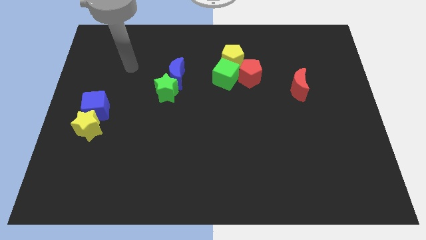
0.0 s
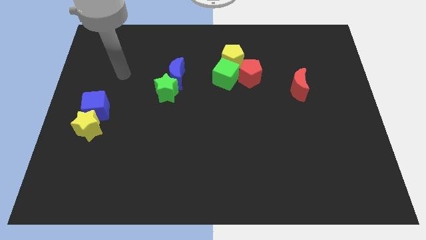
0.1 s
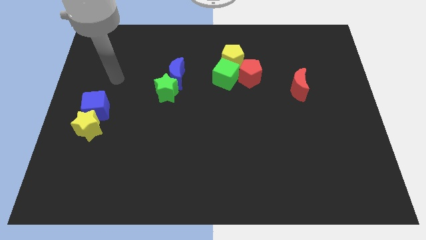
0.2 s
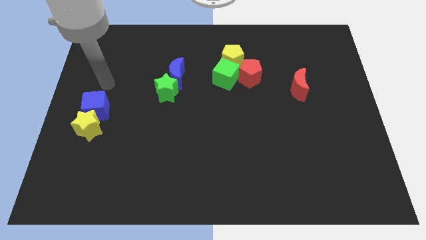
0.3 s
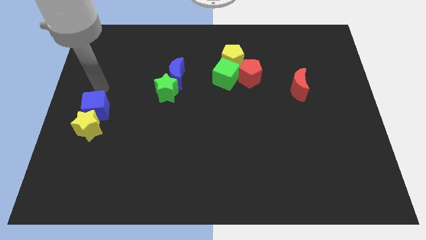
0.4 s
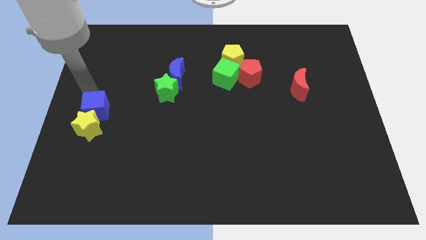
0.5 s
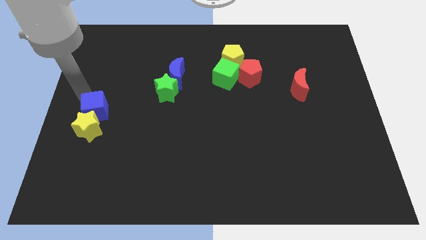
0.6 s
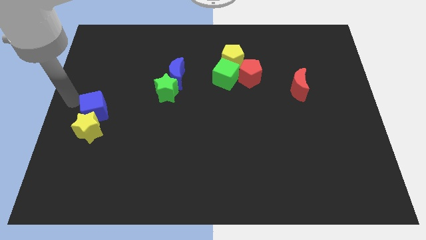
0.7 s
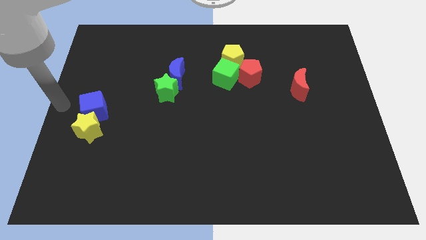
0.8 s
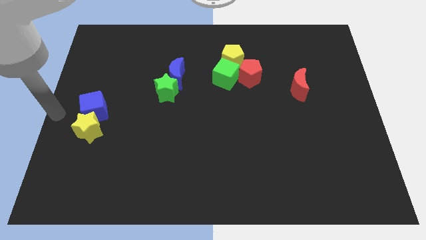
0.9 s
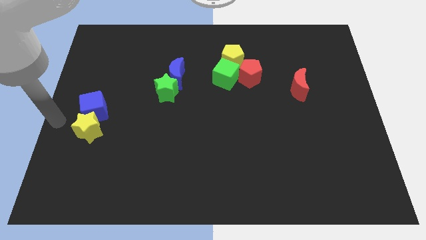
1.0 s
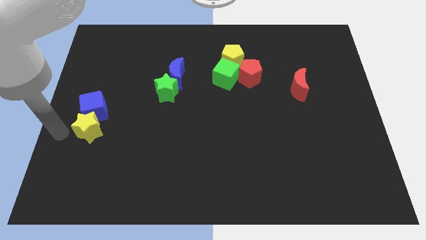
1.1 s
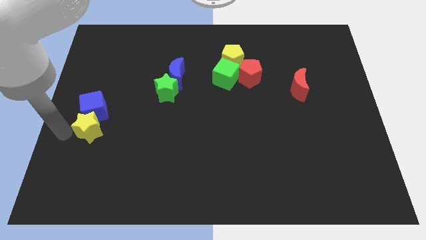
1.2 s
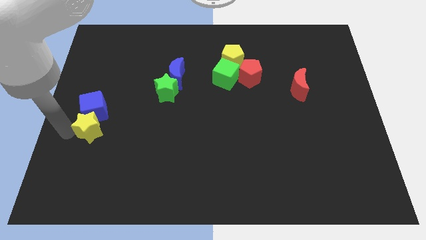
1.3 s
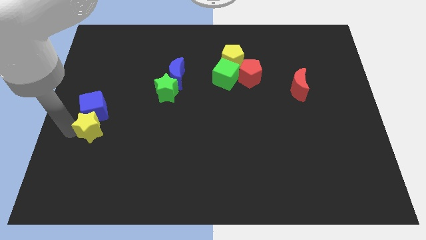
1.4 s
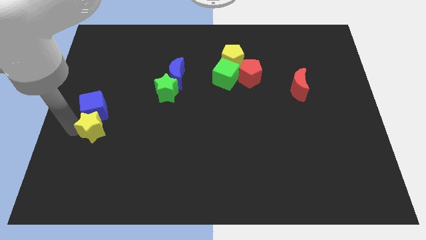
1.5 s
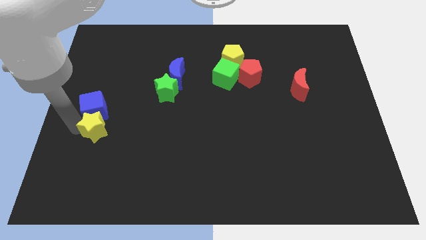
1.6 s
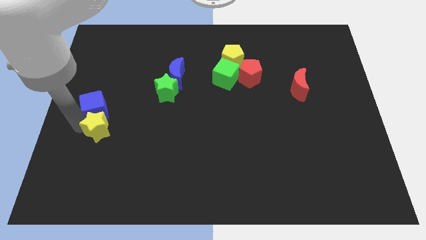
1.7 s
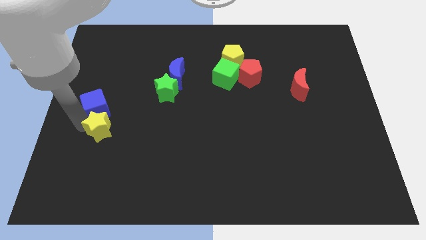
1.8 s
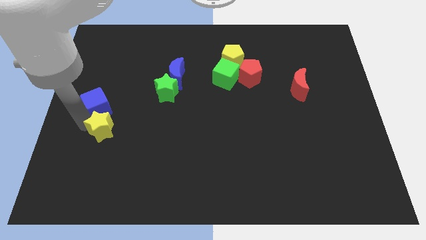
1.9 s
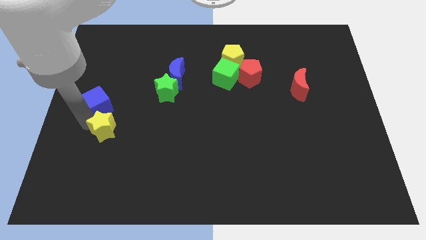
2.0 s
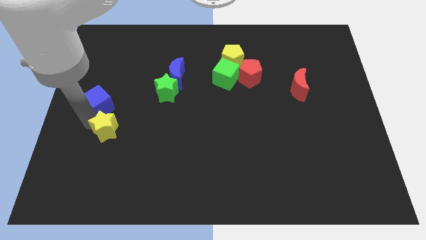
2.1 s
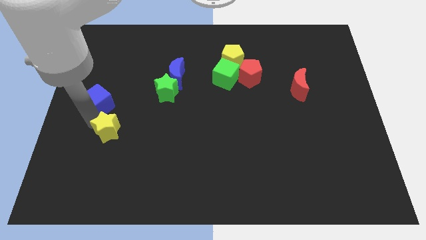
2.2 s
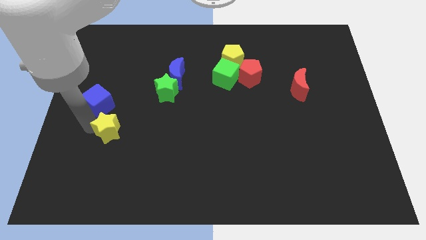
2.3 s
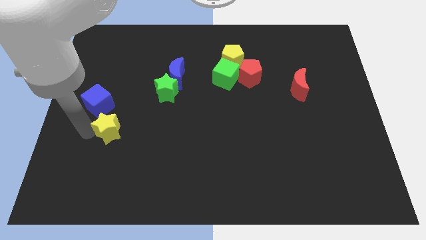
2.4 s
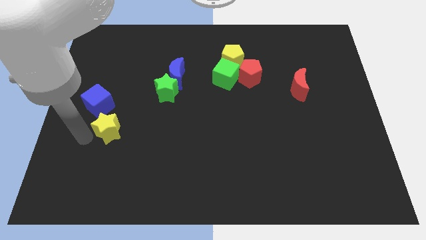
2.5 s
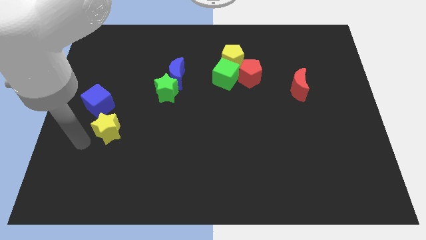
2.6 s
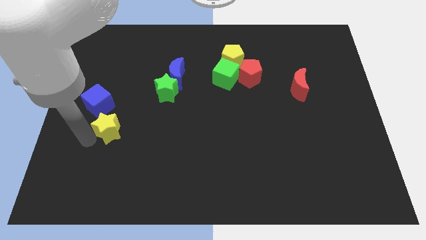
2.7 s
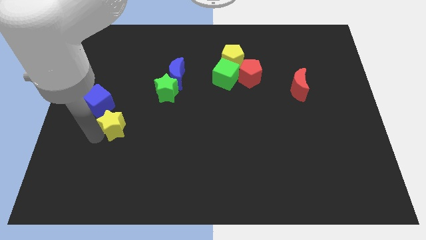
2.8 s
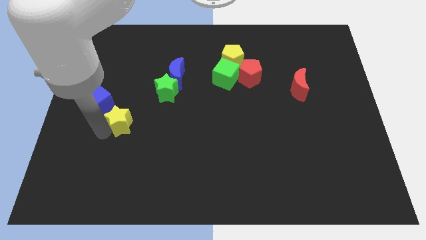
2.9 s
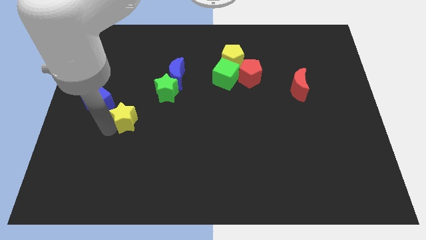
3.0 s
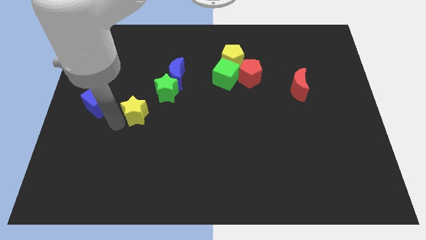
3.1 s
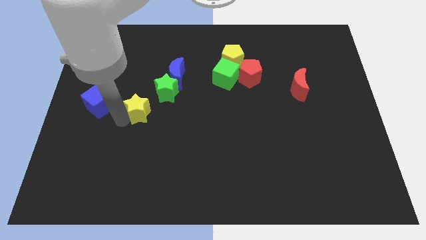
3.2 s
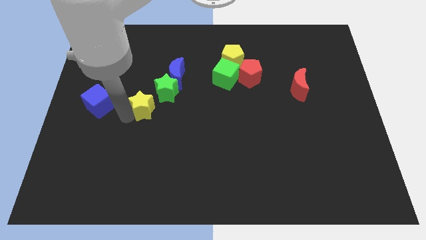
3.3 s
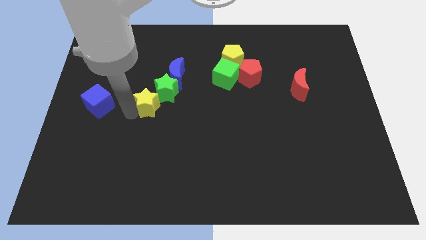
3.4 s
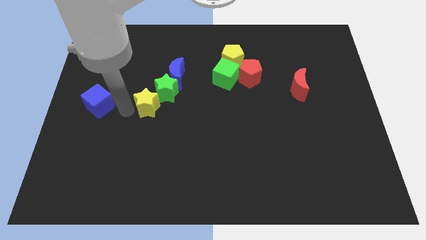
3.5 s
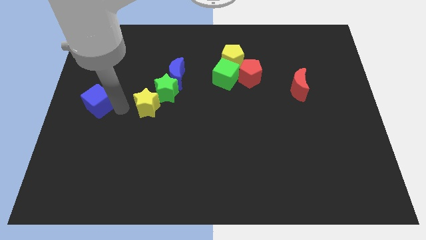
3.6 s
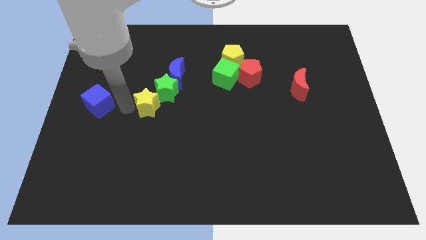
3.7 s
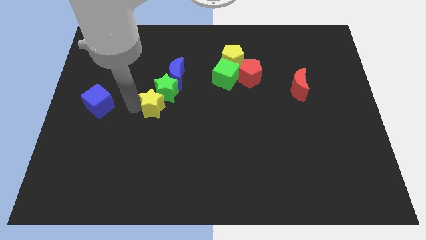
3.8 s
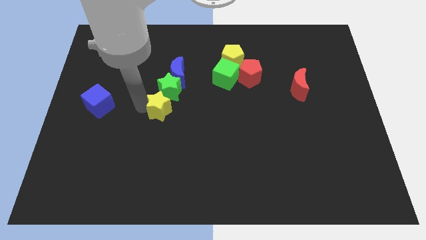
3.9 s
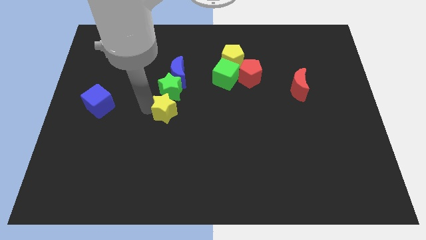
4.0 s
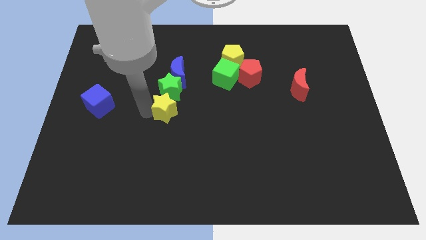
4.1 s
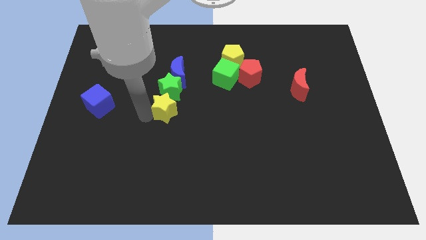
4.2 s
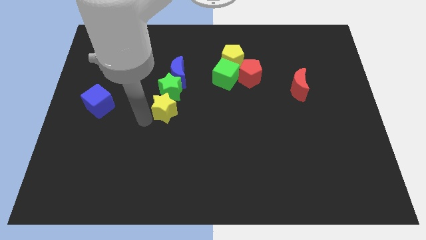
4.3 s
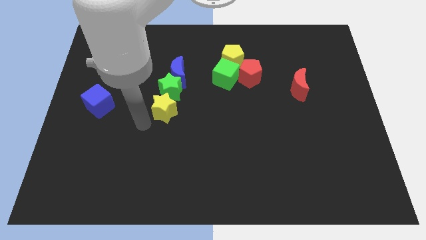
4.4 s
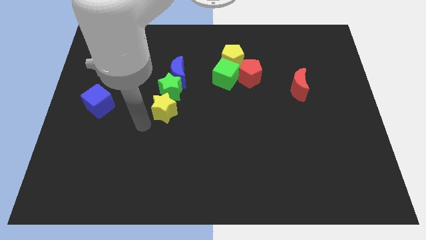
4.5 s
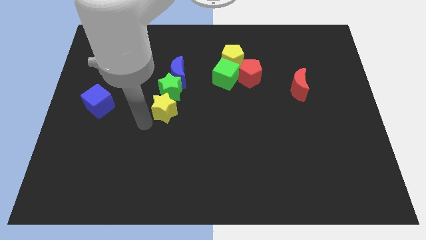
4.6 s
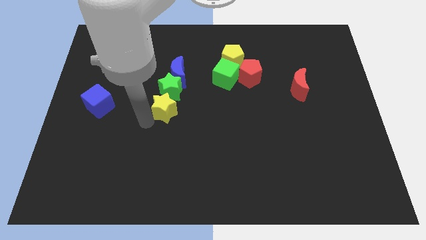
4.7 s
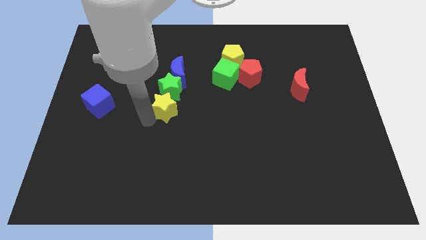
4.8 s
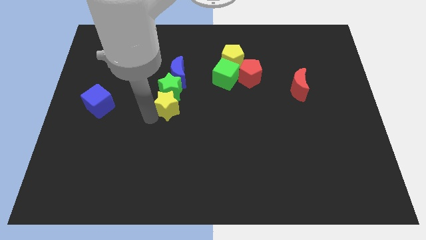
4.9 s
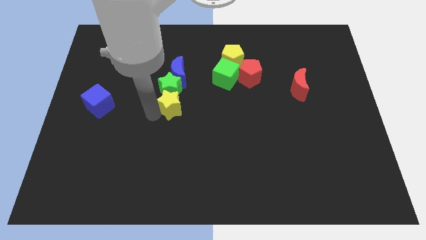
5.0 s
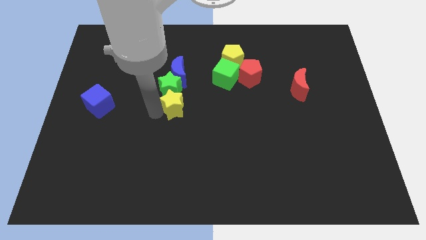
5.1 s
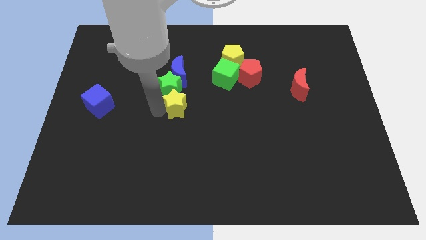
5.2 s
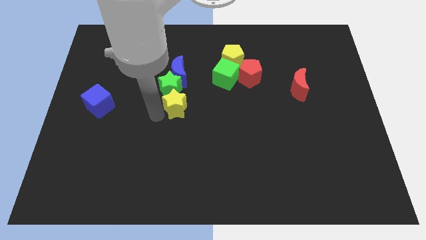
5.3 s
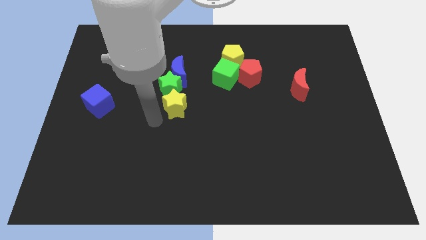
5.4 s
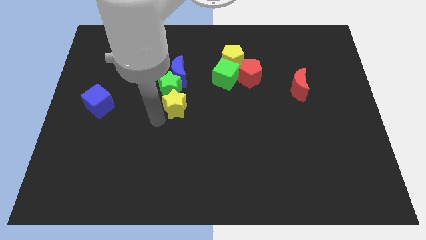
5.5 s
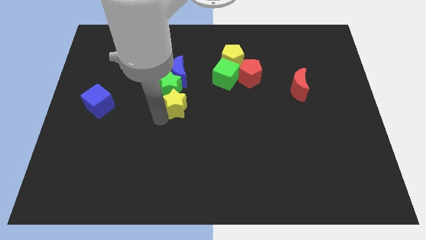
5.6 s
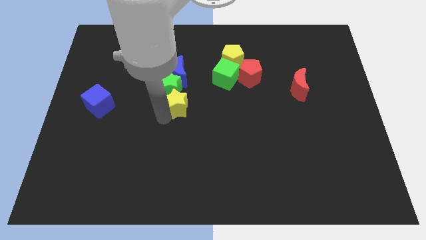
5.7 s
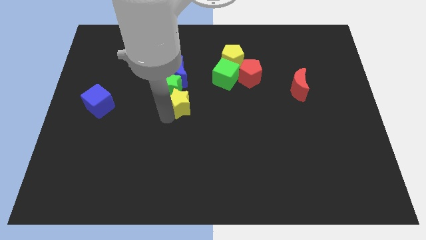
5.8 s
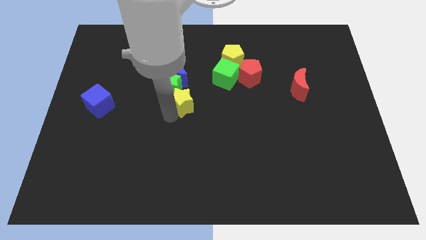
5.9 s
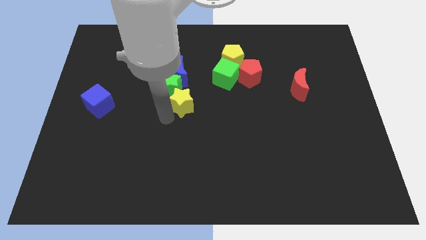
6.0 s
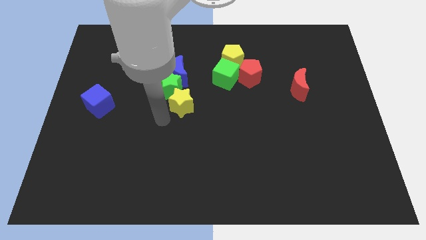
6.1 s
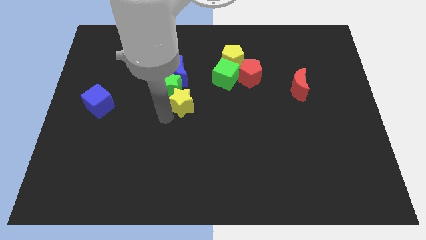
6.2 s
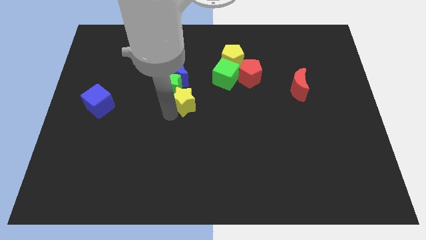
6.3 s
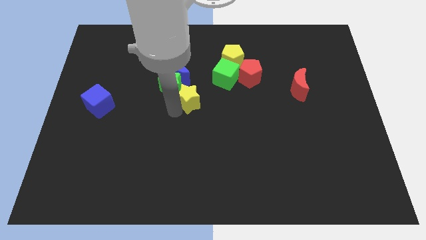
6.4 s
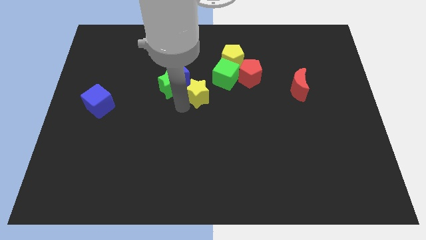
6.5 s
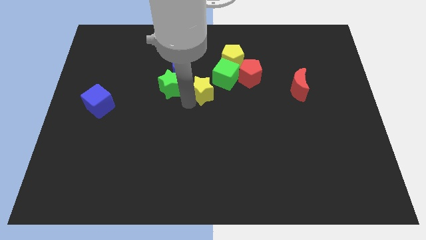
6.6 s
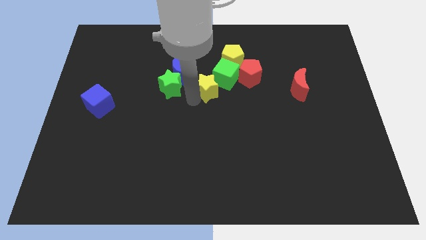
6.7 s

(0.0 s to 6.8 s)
push the yellow star to the green cube

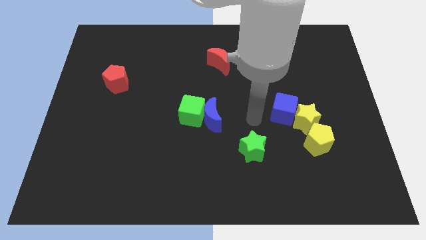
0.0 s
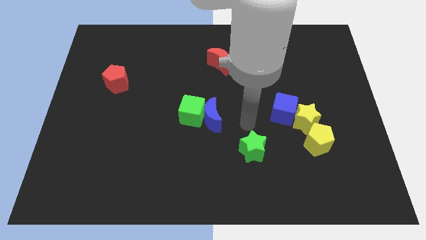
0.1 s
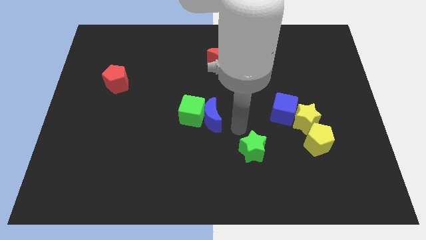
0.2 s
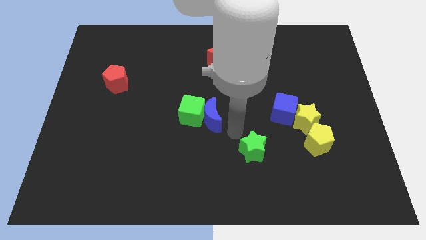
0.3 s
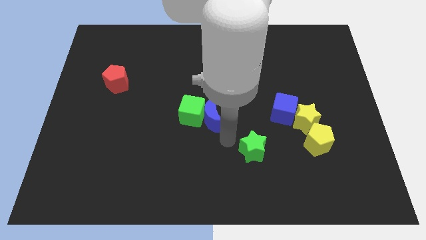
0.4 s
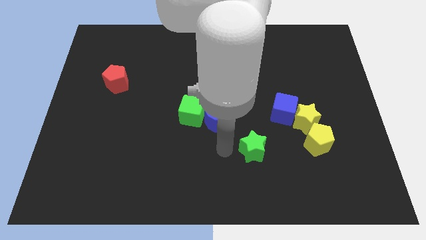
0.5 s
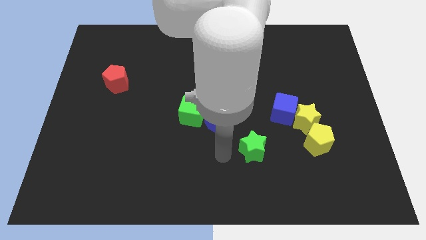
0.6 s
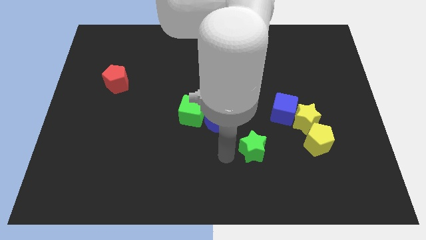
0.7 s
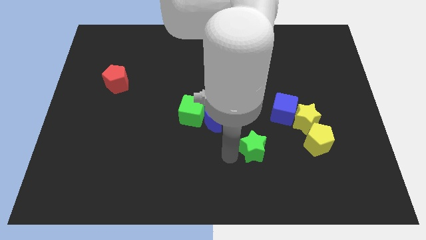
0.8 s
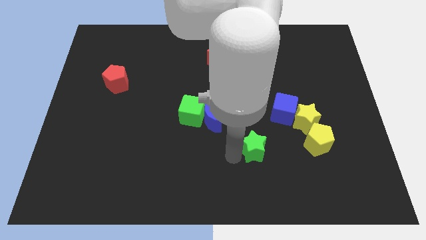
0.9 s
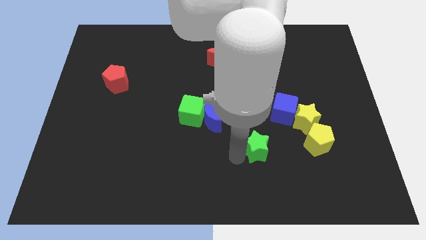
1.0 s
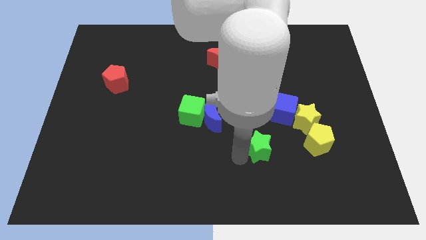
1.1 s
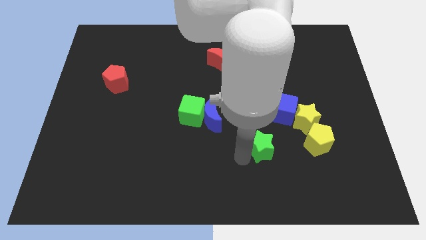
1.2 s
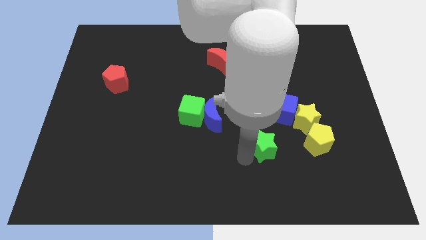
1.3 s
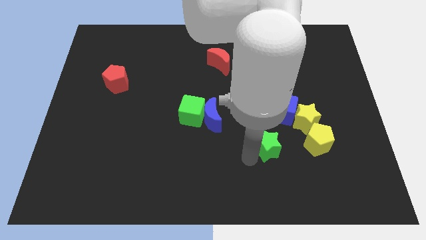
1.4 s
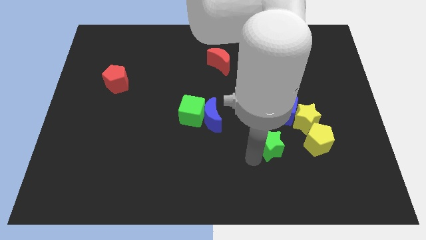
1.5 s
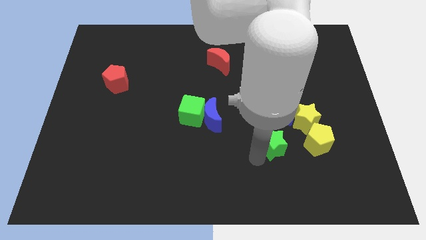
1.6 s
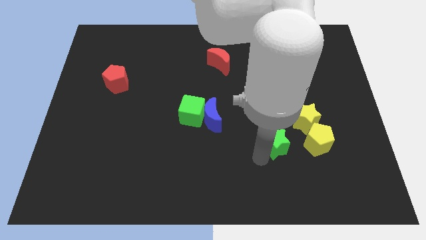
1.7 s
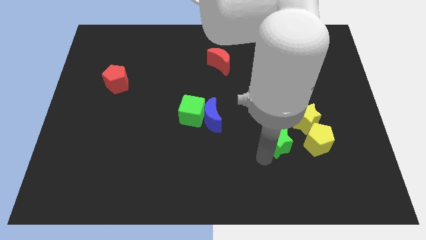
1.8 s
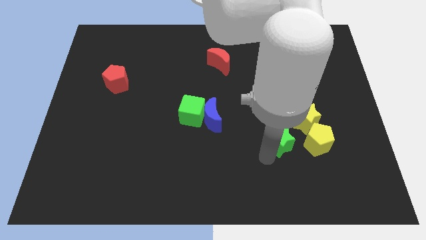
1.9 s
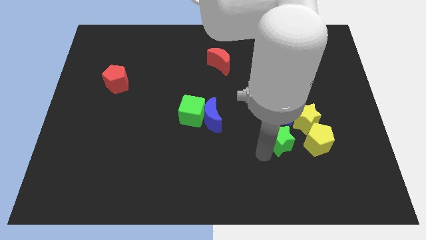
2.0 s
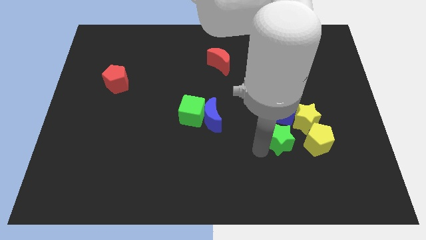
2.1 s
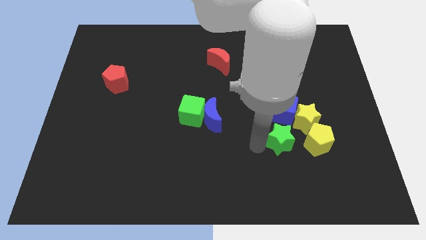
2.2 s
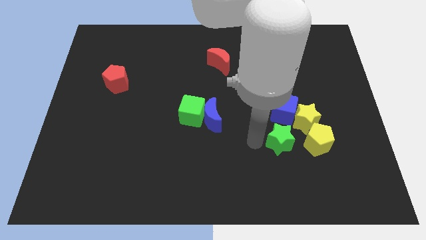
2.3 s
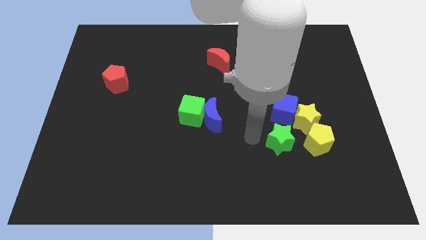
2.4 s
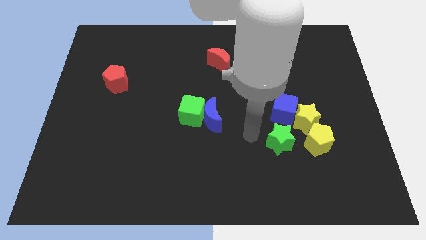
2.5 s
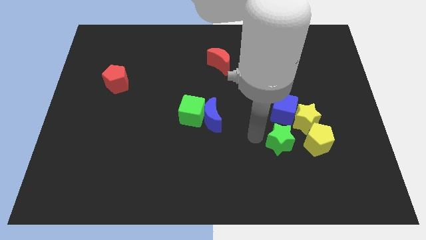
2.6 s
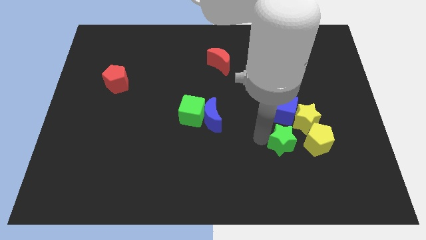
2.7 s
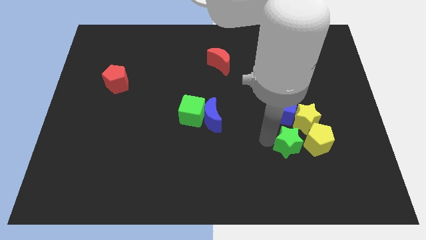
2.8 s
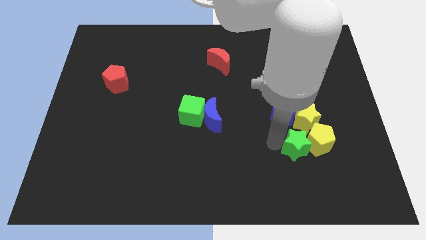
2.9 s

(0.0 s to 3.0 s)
put the green star towards the yellow pentagon
